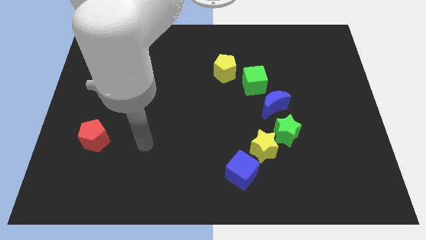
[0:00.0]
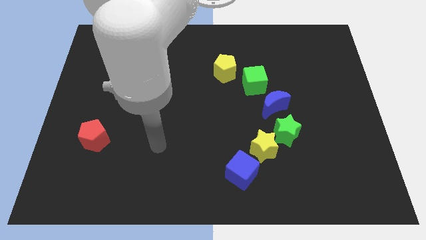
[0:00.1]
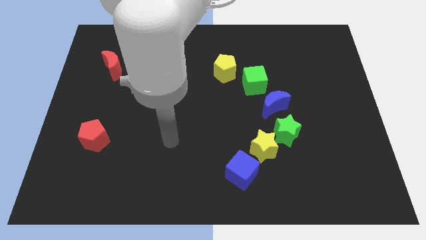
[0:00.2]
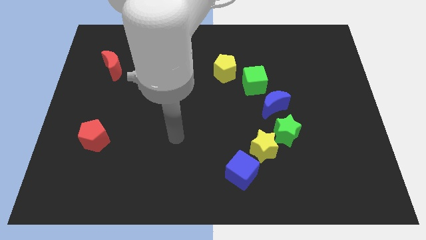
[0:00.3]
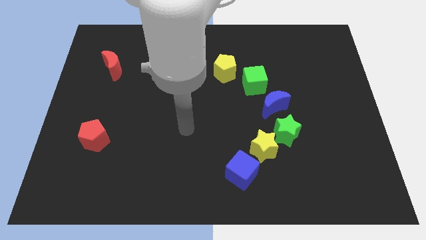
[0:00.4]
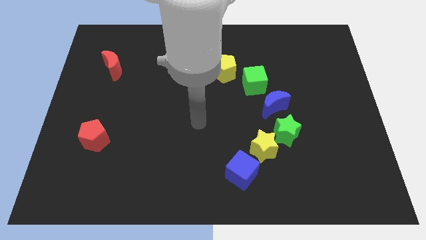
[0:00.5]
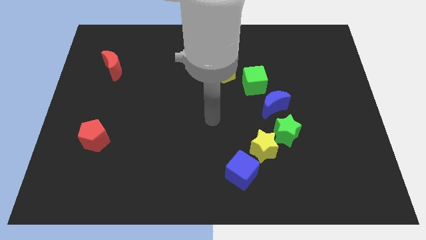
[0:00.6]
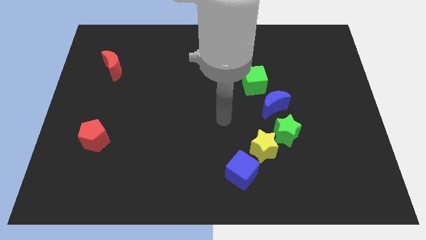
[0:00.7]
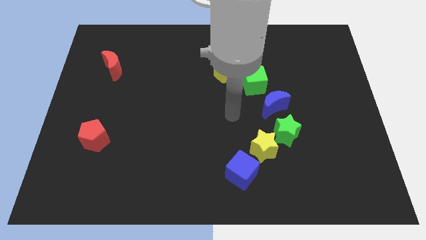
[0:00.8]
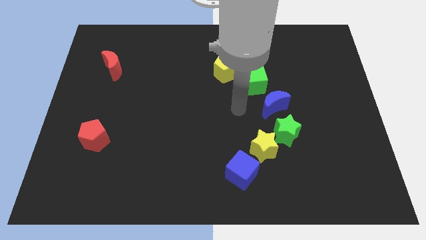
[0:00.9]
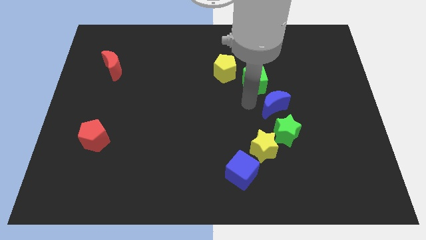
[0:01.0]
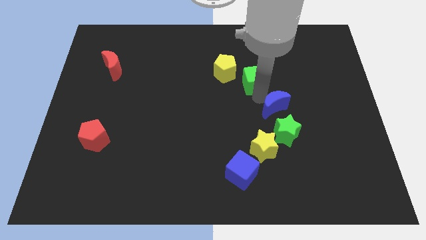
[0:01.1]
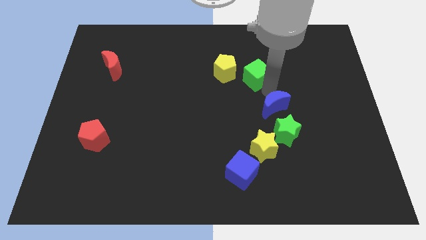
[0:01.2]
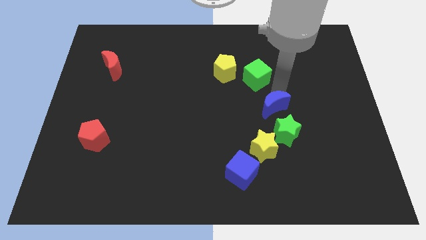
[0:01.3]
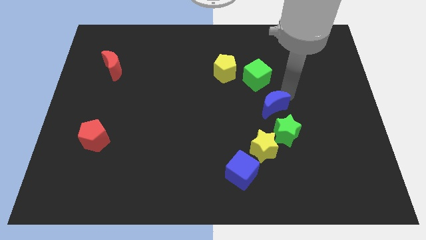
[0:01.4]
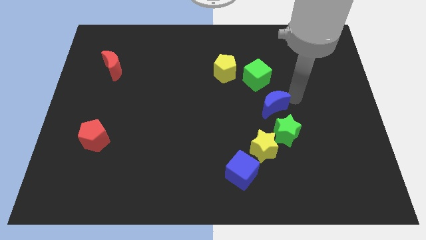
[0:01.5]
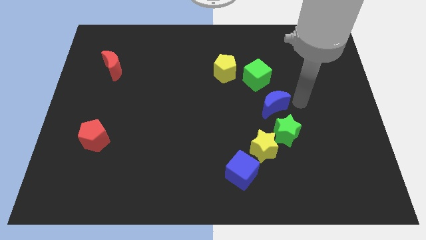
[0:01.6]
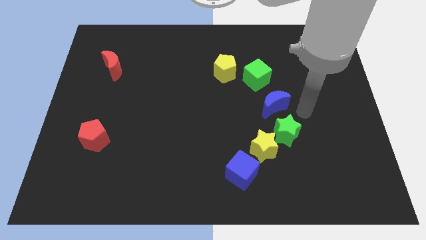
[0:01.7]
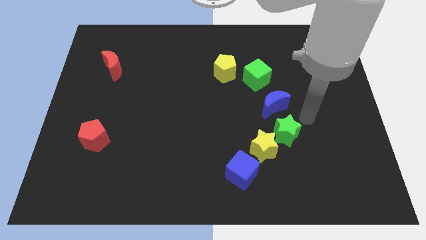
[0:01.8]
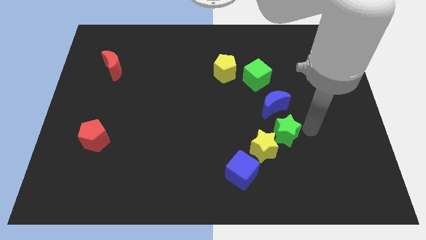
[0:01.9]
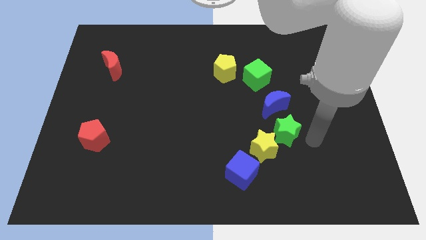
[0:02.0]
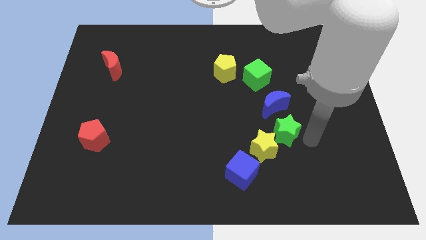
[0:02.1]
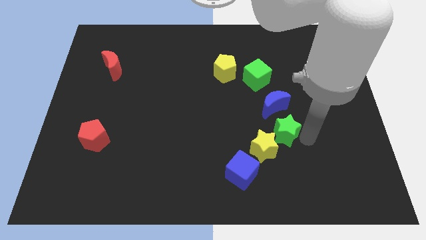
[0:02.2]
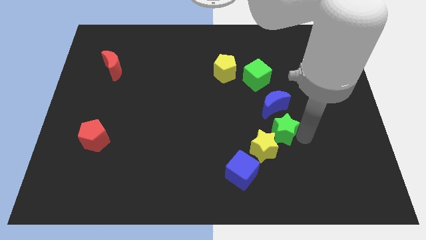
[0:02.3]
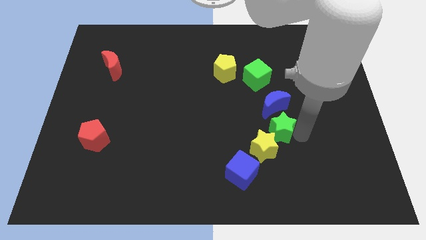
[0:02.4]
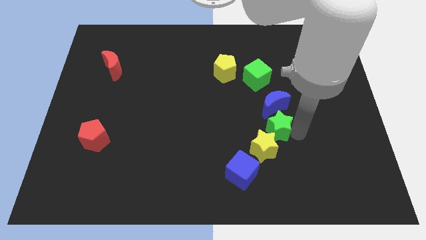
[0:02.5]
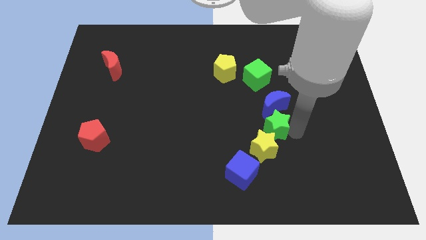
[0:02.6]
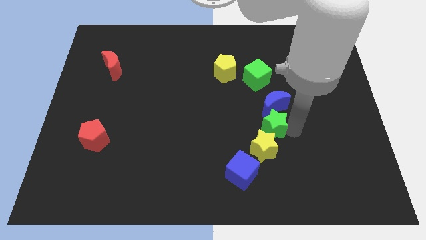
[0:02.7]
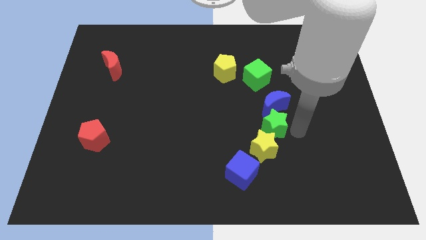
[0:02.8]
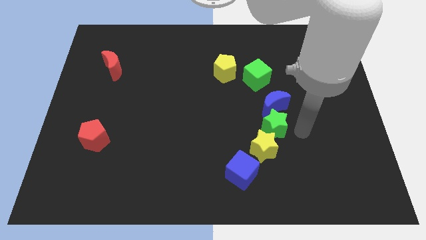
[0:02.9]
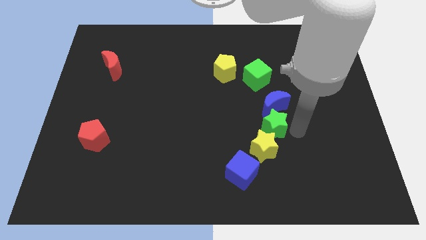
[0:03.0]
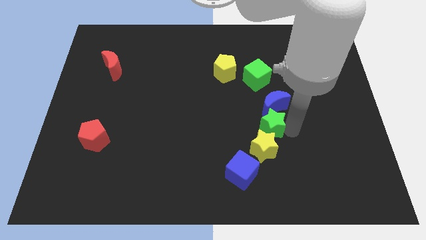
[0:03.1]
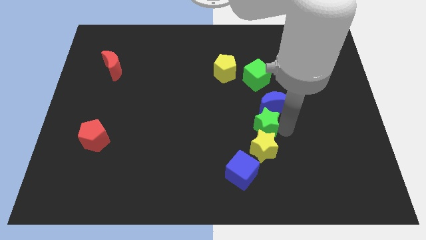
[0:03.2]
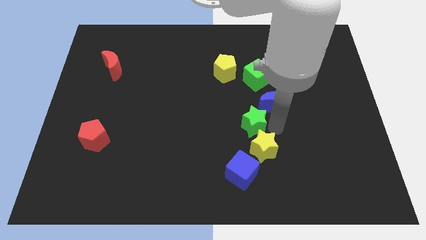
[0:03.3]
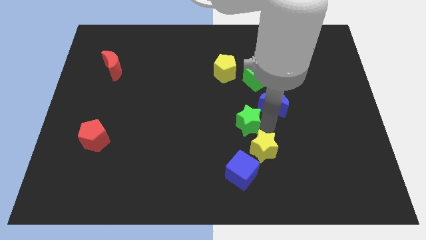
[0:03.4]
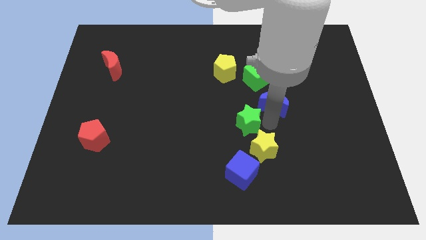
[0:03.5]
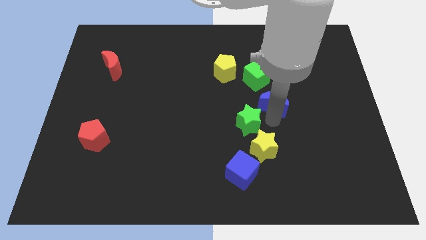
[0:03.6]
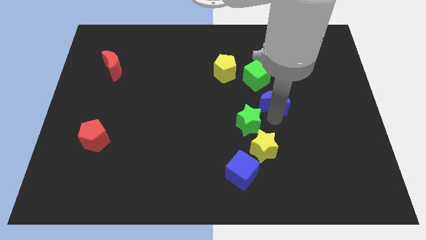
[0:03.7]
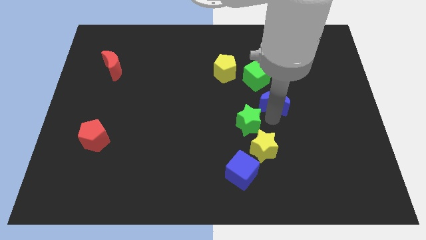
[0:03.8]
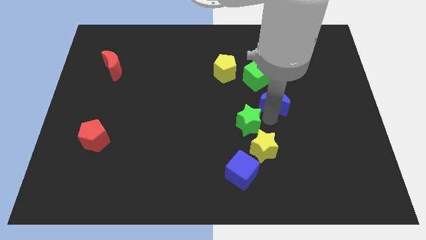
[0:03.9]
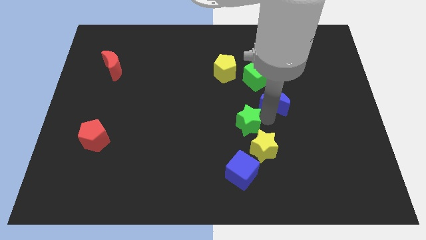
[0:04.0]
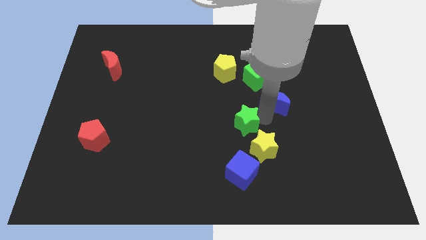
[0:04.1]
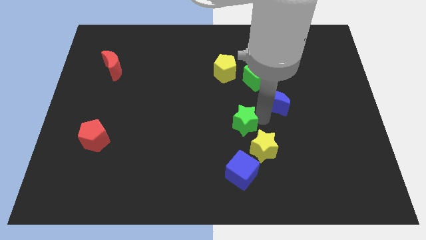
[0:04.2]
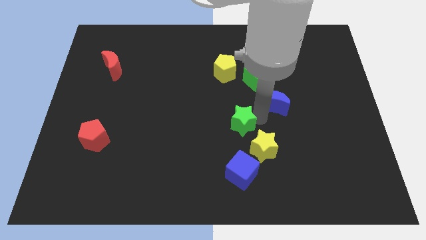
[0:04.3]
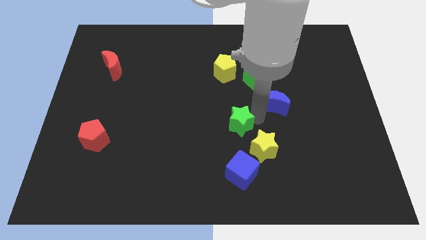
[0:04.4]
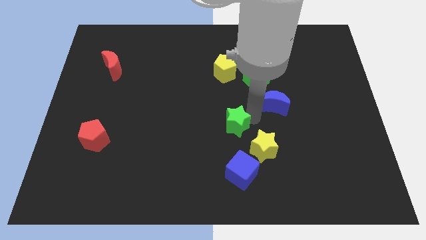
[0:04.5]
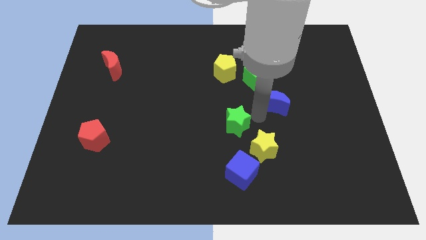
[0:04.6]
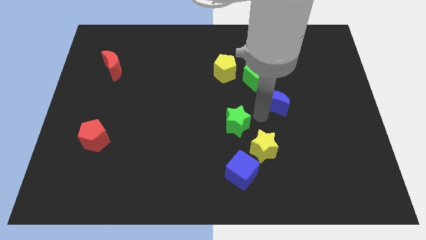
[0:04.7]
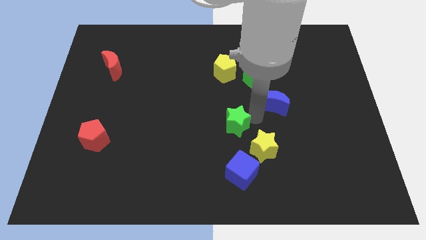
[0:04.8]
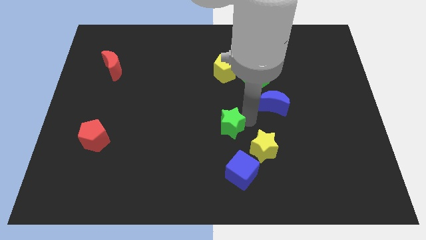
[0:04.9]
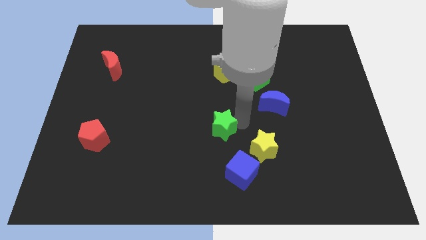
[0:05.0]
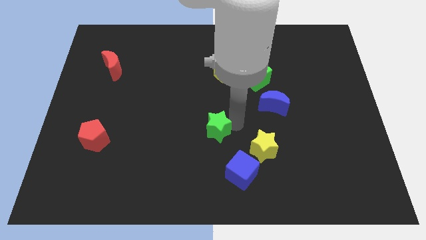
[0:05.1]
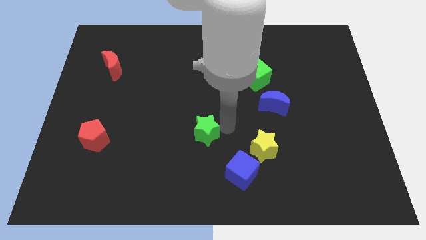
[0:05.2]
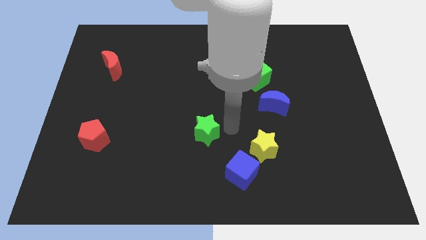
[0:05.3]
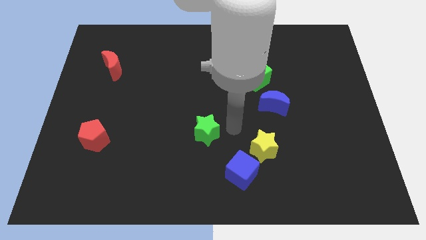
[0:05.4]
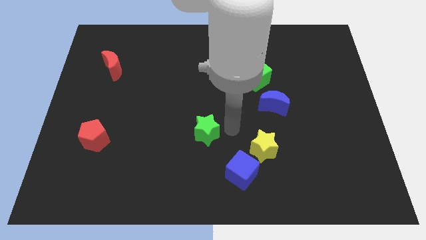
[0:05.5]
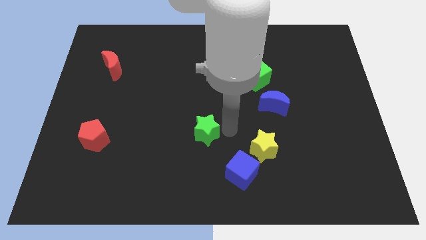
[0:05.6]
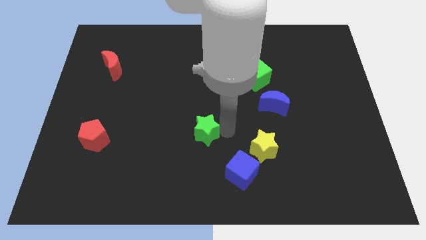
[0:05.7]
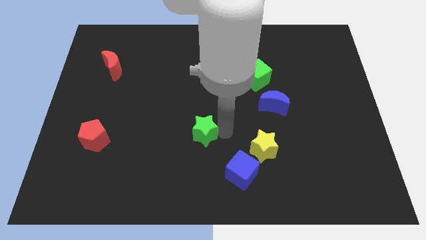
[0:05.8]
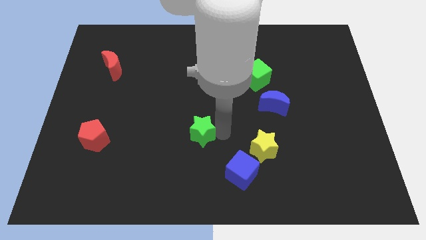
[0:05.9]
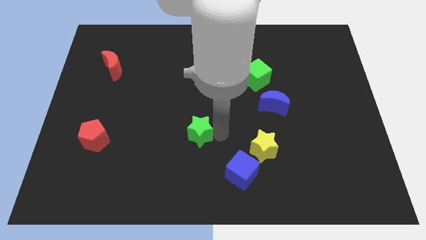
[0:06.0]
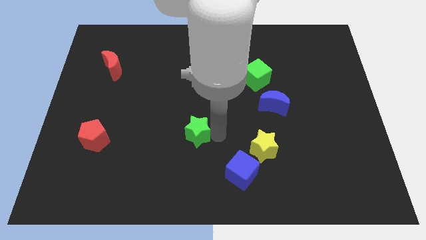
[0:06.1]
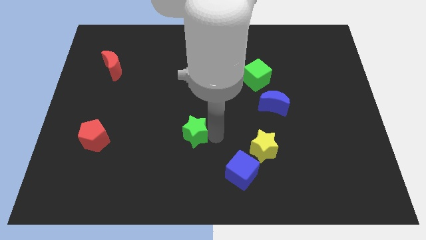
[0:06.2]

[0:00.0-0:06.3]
move the green star to the left

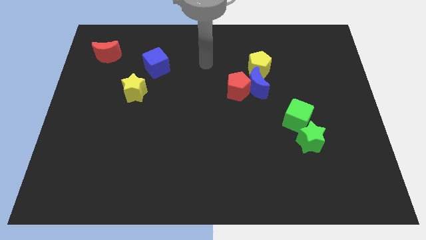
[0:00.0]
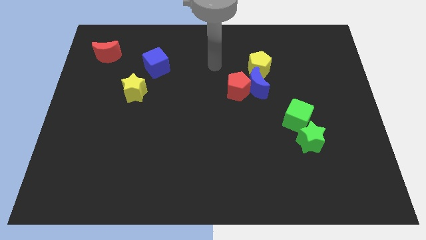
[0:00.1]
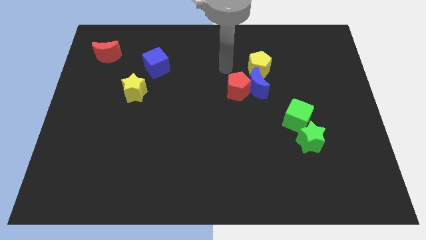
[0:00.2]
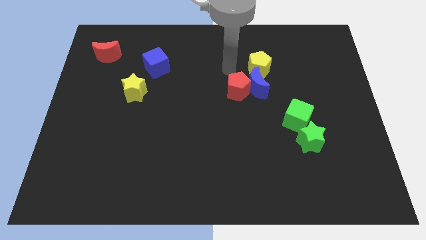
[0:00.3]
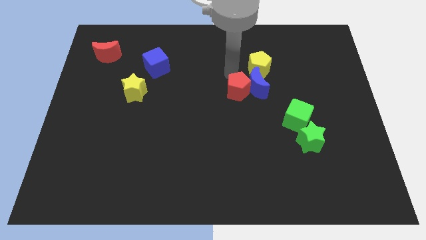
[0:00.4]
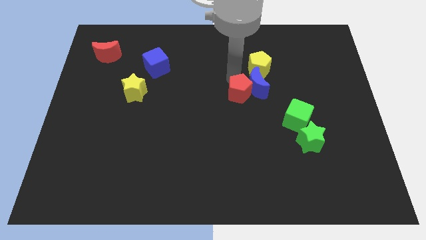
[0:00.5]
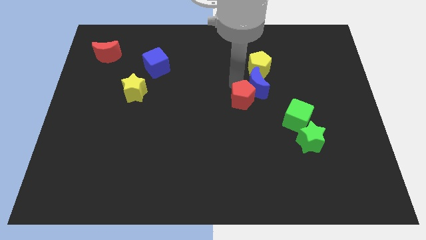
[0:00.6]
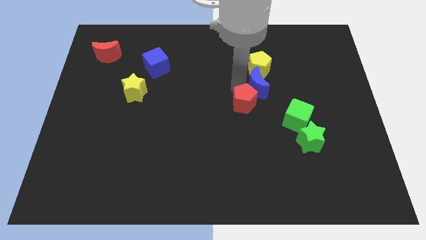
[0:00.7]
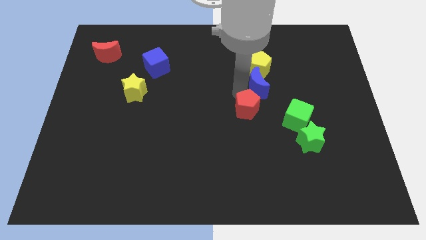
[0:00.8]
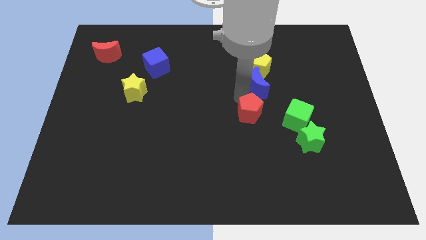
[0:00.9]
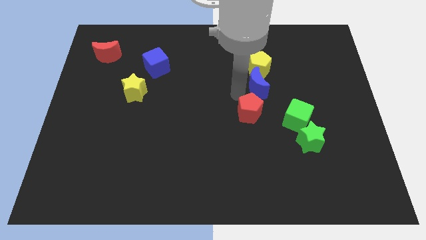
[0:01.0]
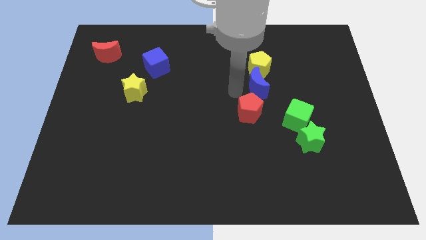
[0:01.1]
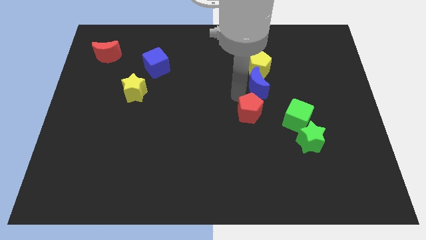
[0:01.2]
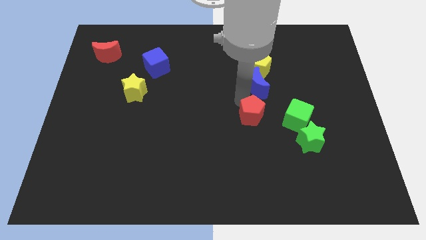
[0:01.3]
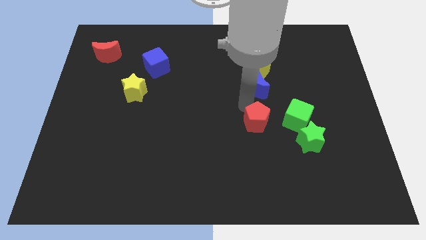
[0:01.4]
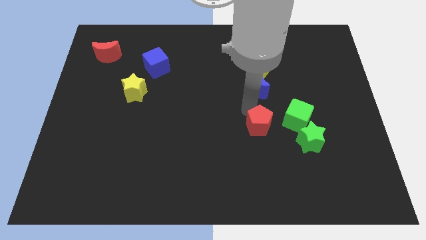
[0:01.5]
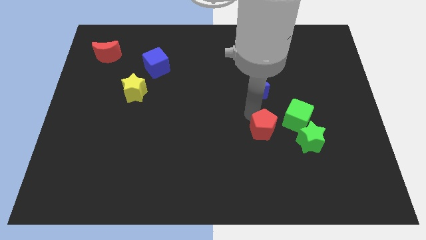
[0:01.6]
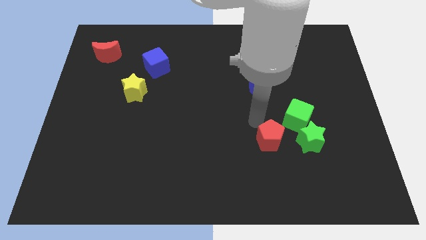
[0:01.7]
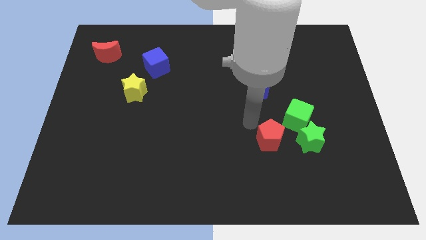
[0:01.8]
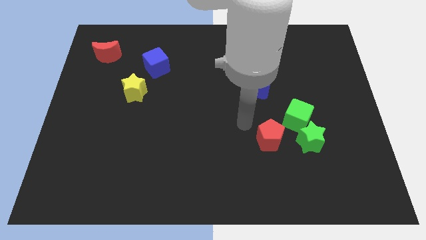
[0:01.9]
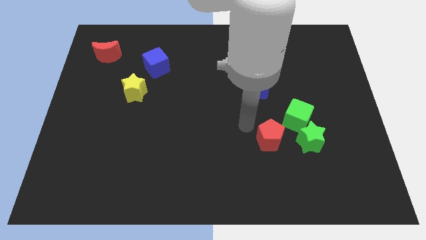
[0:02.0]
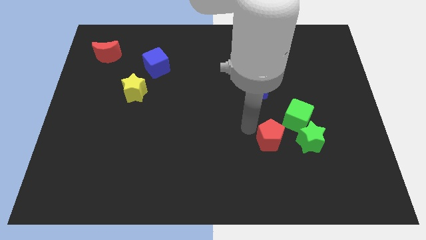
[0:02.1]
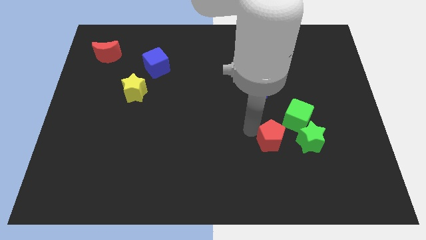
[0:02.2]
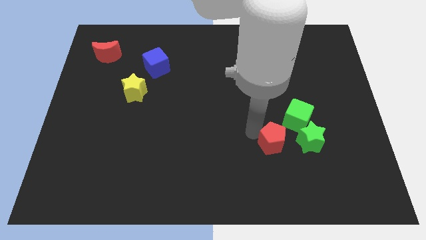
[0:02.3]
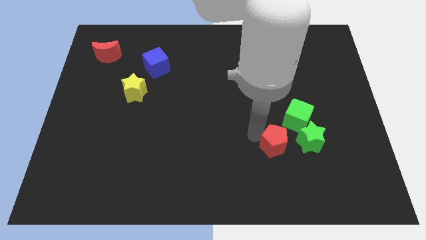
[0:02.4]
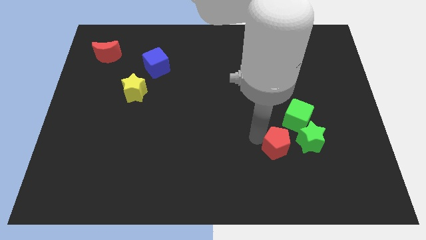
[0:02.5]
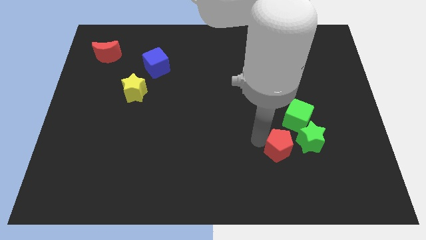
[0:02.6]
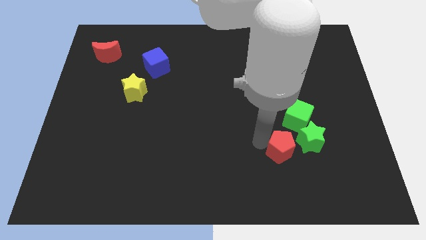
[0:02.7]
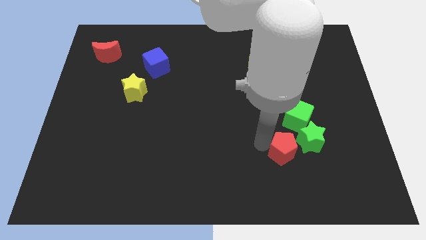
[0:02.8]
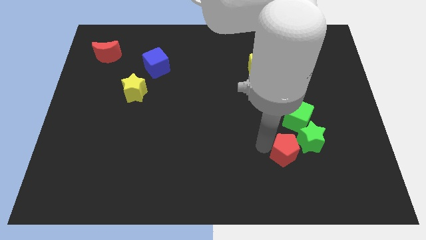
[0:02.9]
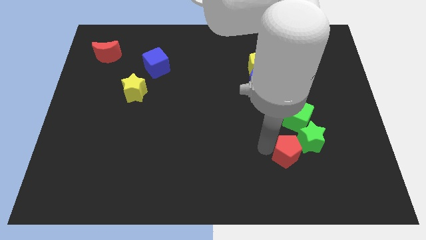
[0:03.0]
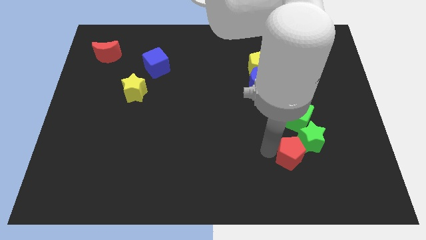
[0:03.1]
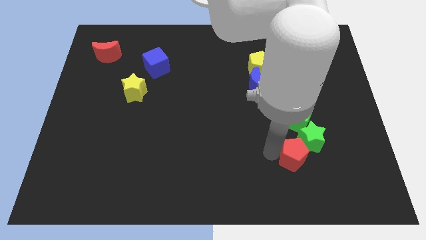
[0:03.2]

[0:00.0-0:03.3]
push the red pentagon down and to the right
